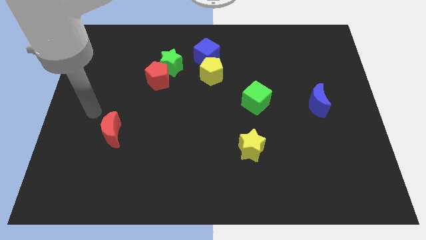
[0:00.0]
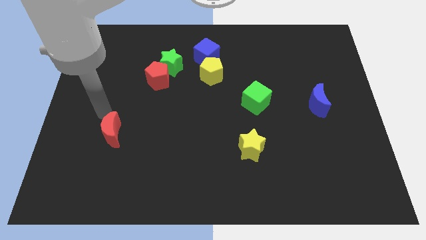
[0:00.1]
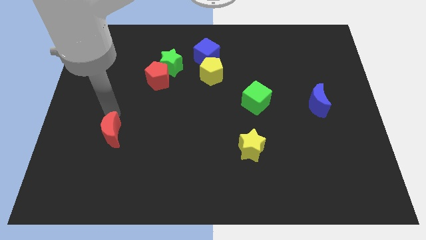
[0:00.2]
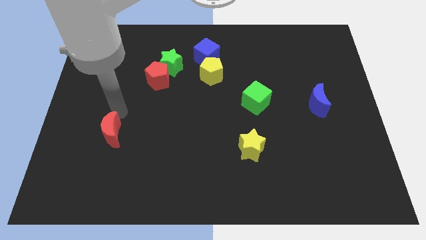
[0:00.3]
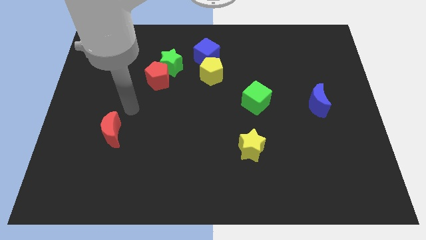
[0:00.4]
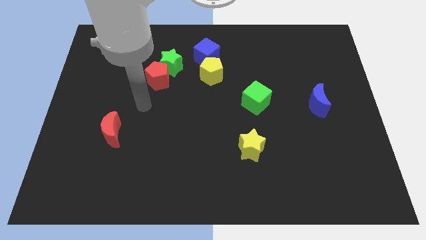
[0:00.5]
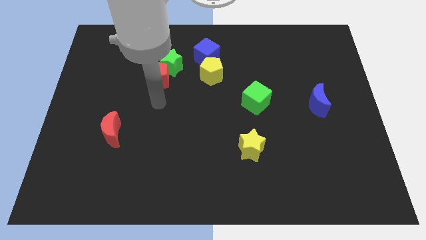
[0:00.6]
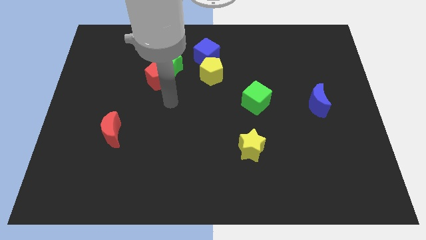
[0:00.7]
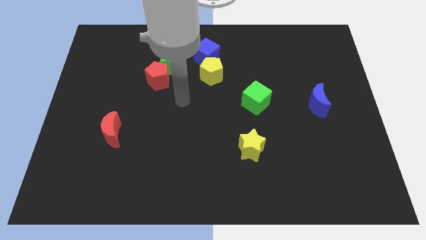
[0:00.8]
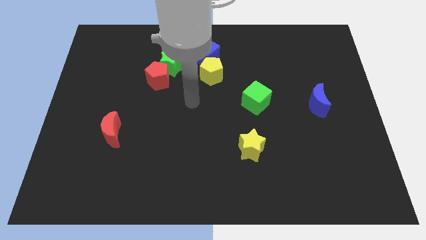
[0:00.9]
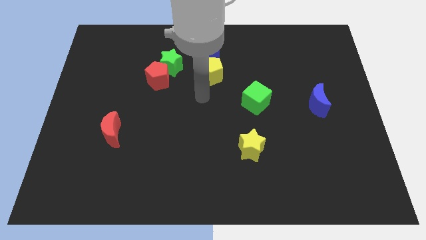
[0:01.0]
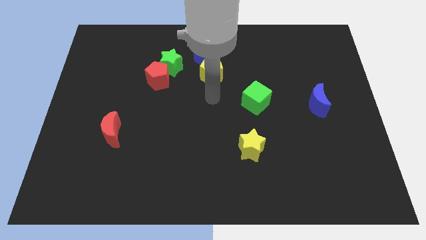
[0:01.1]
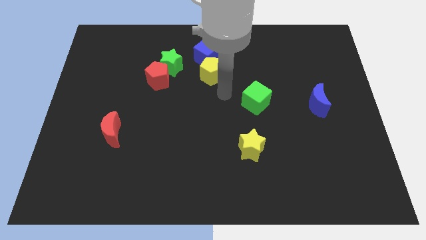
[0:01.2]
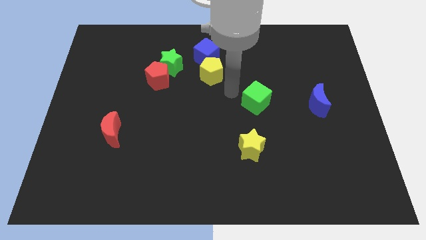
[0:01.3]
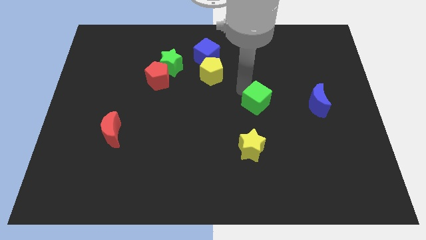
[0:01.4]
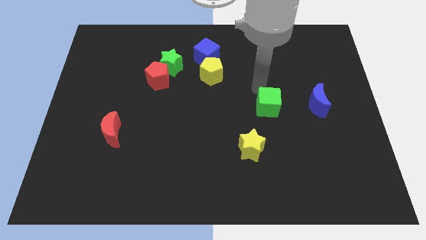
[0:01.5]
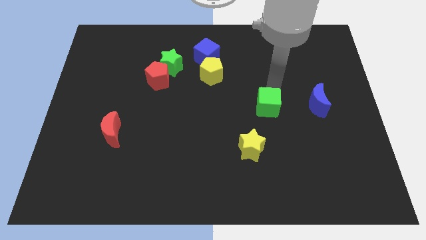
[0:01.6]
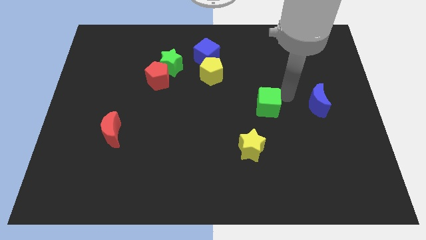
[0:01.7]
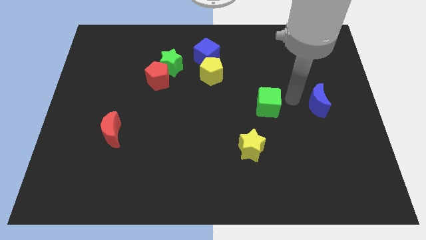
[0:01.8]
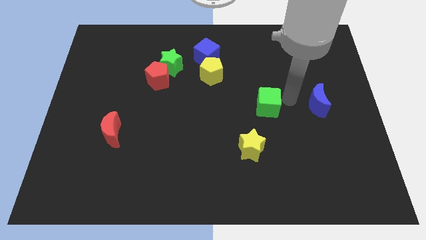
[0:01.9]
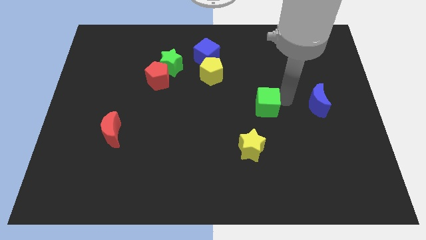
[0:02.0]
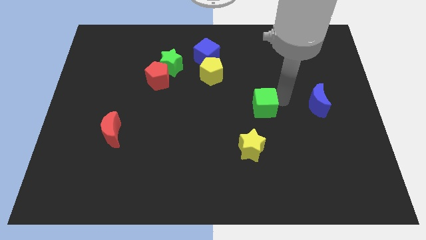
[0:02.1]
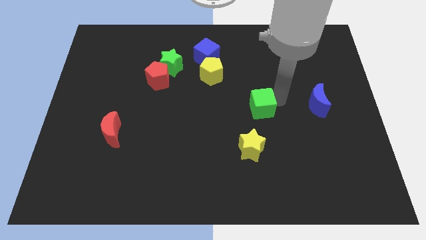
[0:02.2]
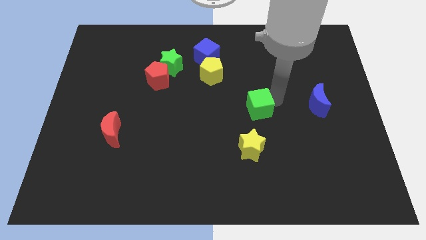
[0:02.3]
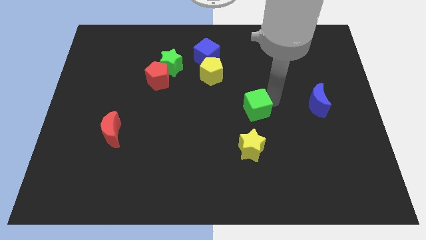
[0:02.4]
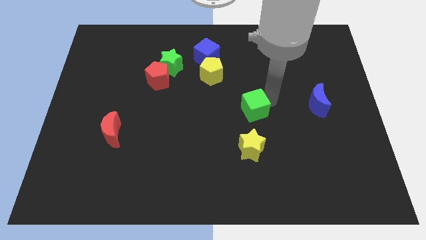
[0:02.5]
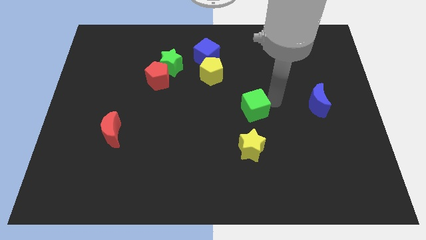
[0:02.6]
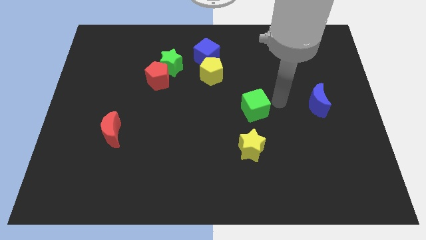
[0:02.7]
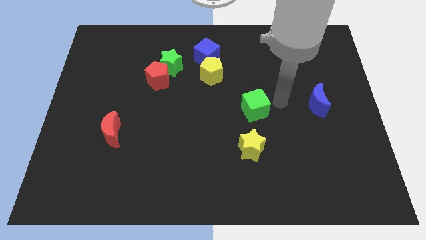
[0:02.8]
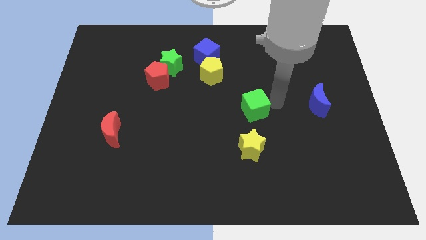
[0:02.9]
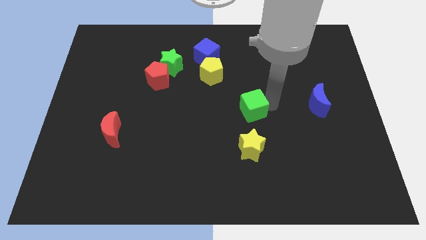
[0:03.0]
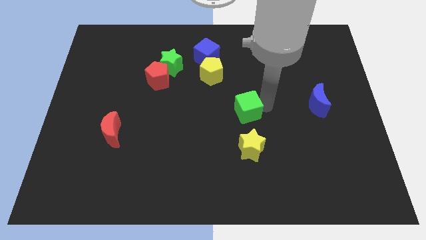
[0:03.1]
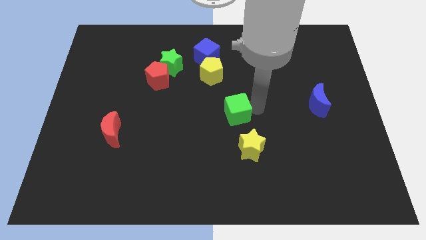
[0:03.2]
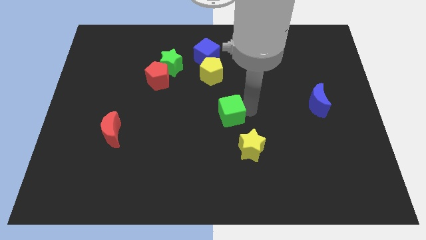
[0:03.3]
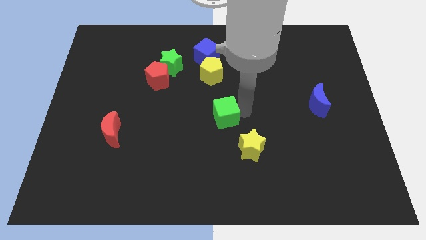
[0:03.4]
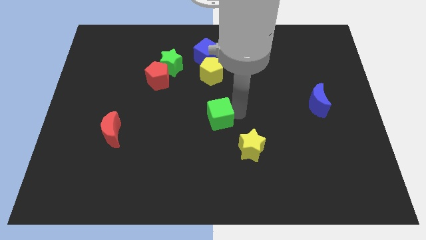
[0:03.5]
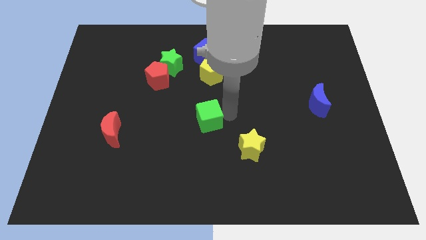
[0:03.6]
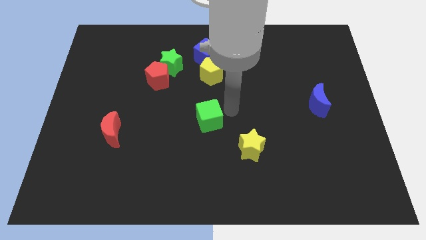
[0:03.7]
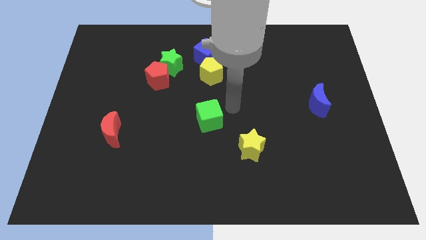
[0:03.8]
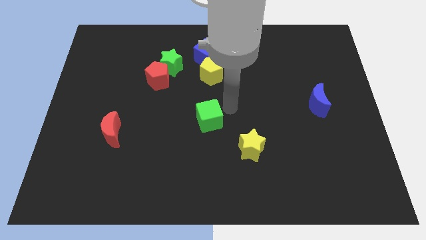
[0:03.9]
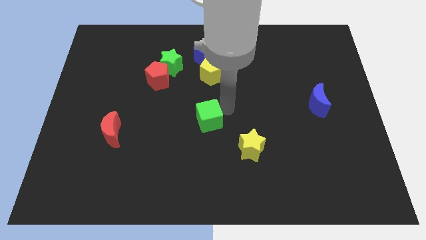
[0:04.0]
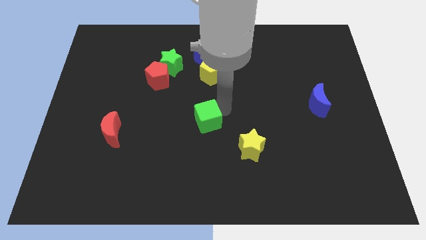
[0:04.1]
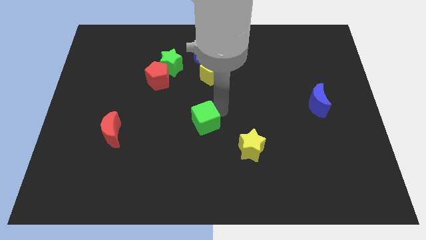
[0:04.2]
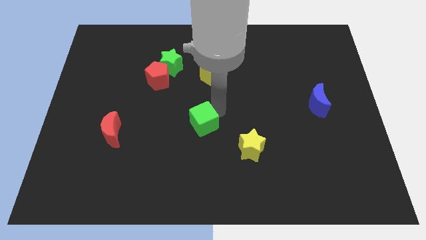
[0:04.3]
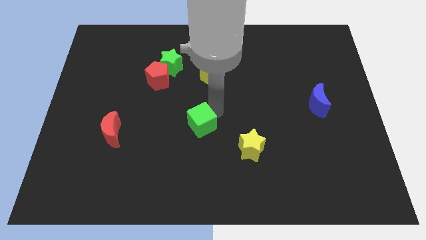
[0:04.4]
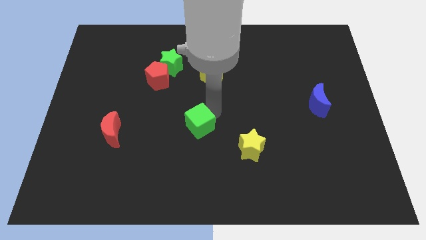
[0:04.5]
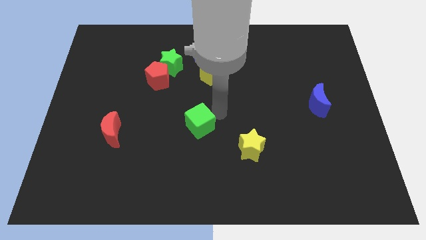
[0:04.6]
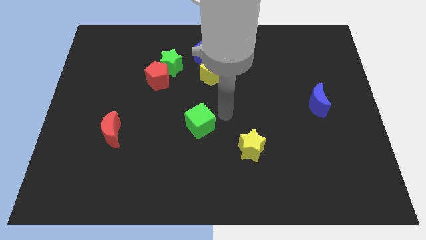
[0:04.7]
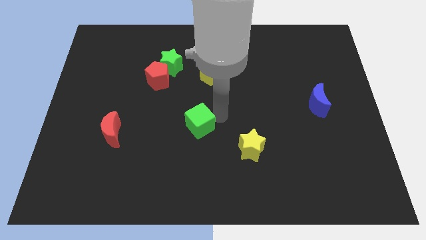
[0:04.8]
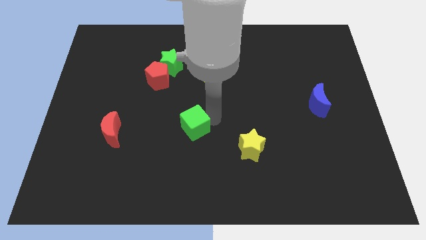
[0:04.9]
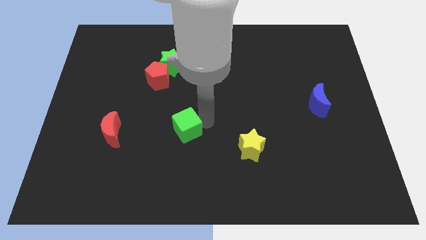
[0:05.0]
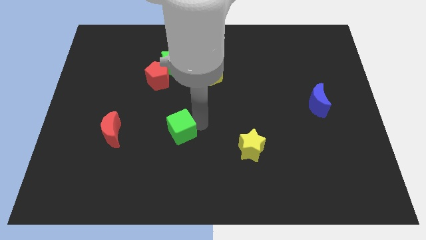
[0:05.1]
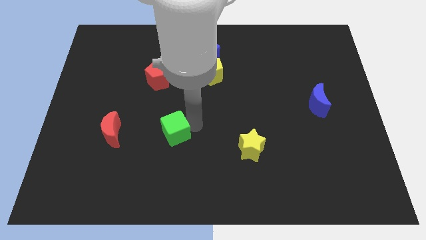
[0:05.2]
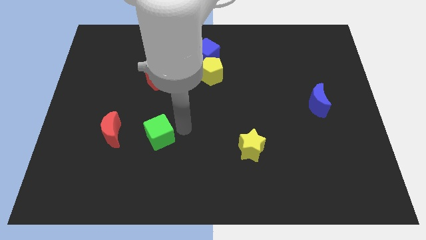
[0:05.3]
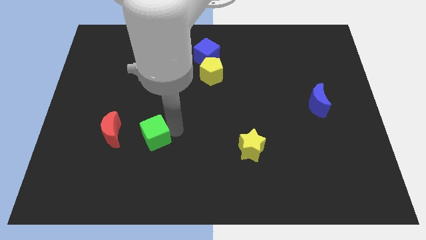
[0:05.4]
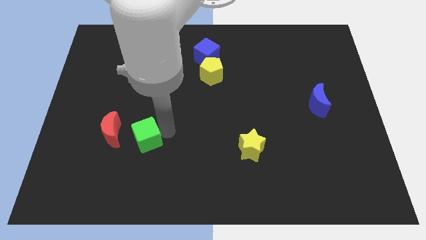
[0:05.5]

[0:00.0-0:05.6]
put the green cube to the bottom right of the red moon

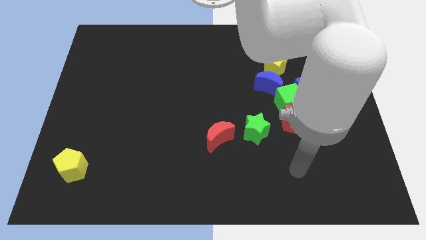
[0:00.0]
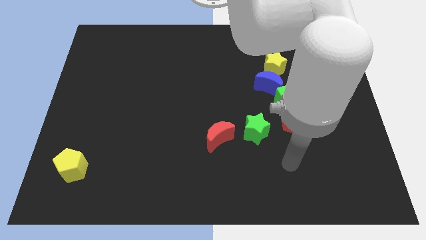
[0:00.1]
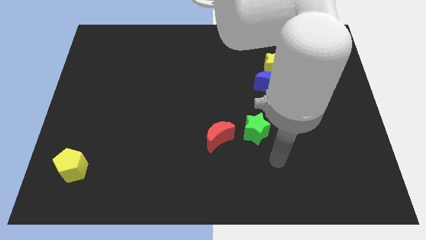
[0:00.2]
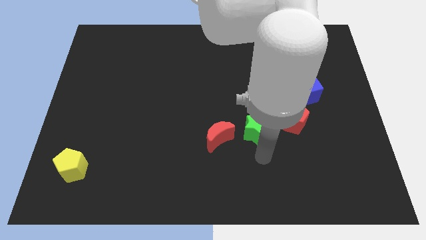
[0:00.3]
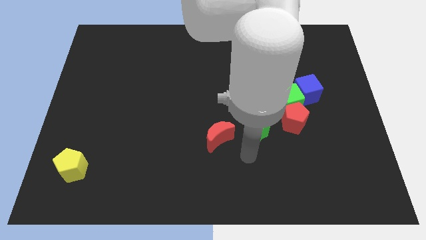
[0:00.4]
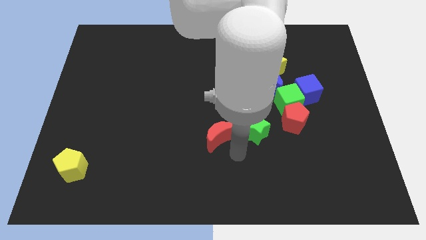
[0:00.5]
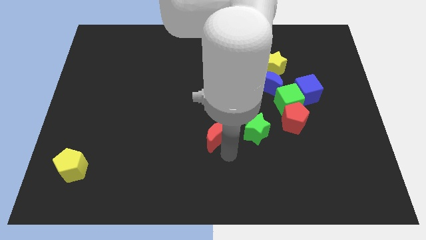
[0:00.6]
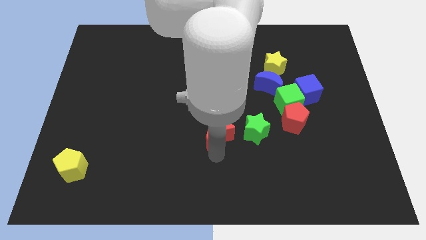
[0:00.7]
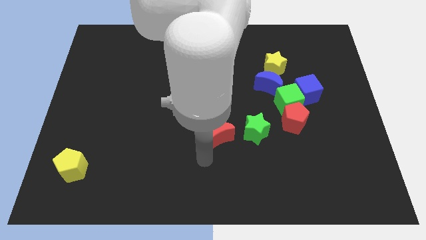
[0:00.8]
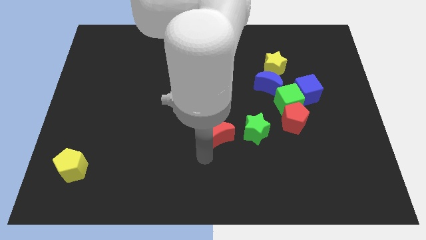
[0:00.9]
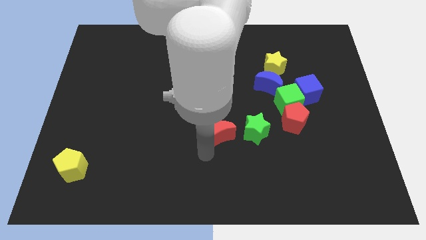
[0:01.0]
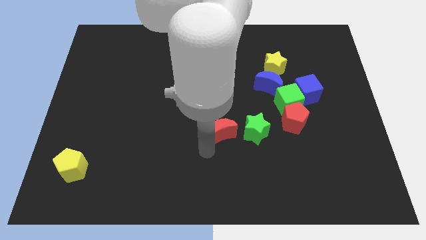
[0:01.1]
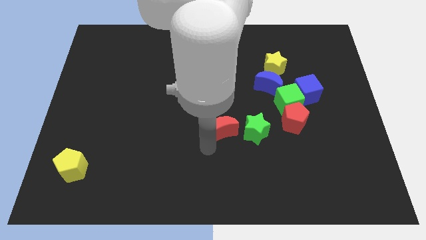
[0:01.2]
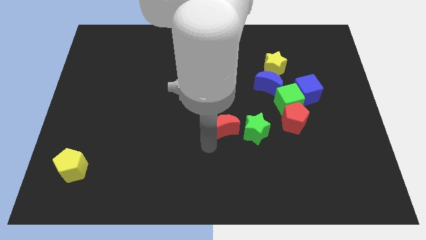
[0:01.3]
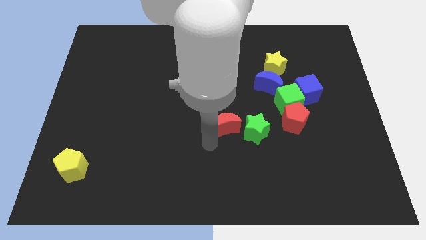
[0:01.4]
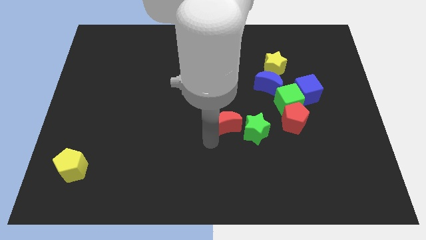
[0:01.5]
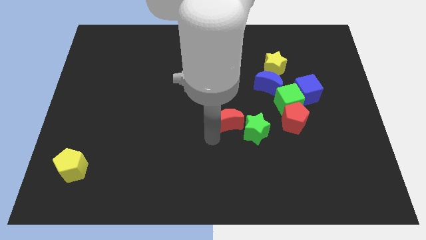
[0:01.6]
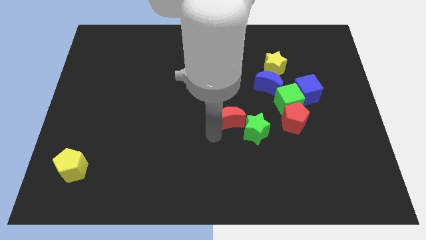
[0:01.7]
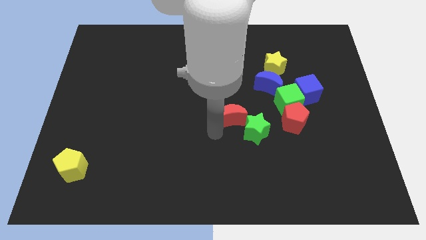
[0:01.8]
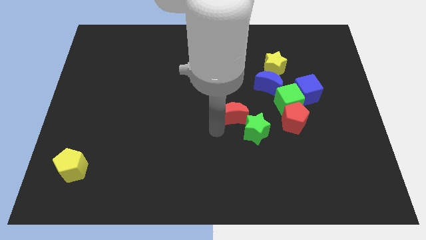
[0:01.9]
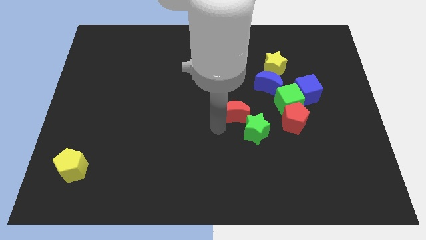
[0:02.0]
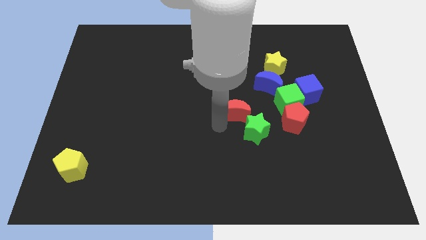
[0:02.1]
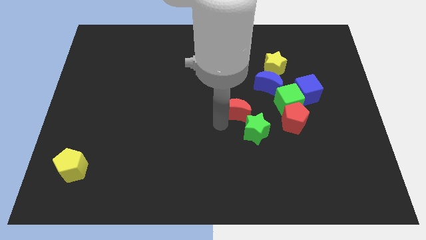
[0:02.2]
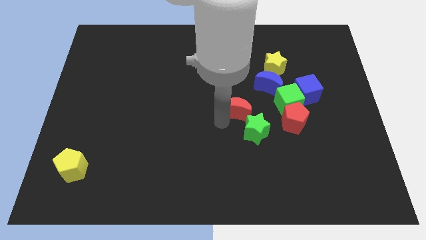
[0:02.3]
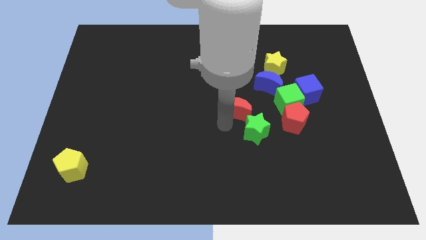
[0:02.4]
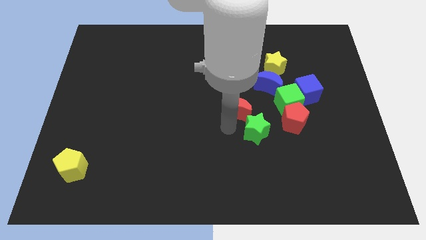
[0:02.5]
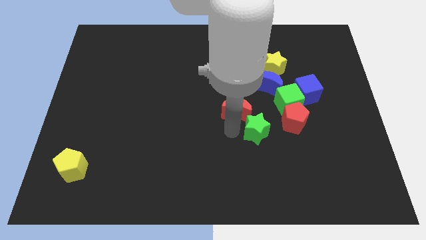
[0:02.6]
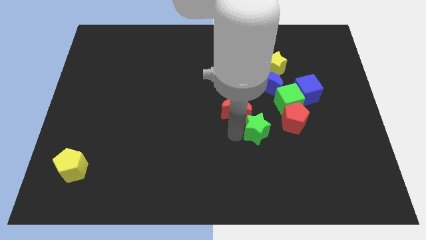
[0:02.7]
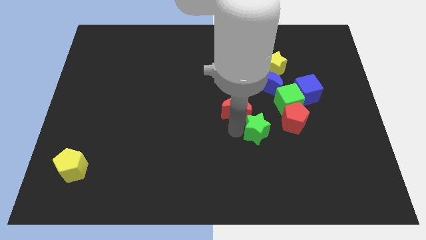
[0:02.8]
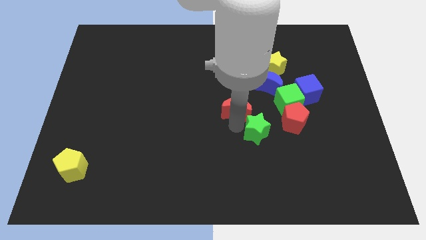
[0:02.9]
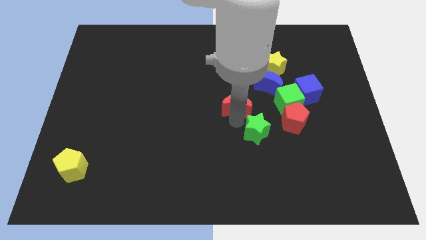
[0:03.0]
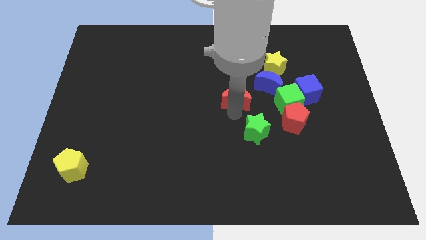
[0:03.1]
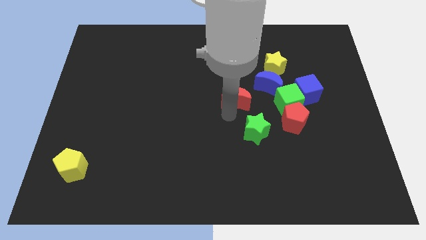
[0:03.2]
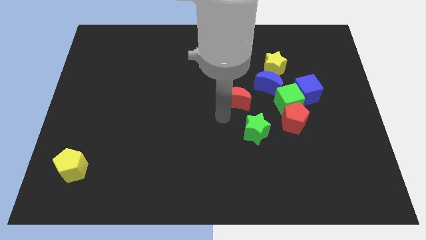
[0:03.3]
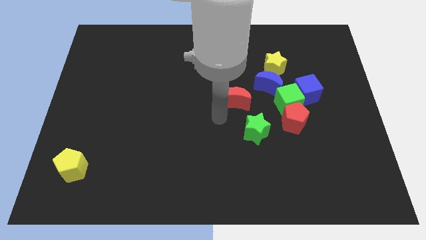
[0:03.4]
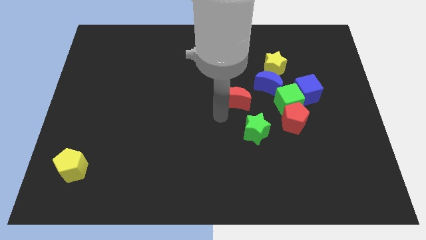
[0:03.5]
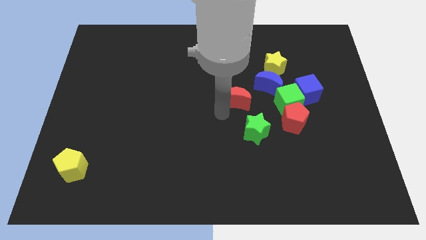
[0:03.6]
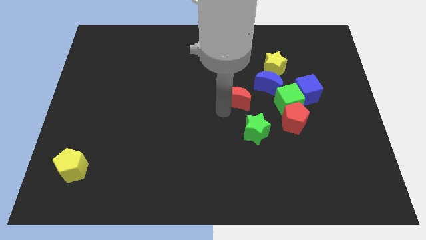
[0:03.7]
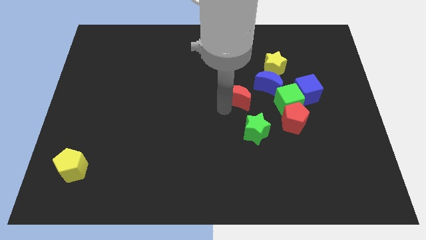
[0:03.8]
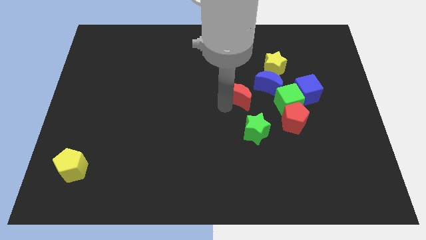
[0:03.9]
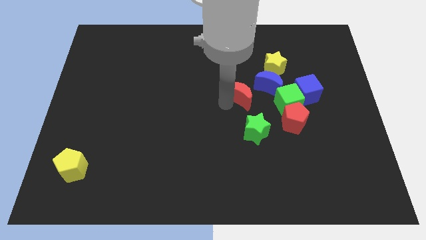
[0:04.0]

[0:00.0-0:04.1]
slide the red moon diagonally down and to the left of the yellow star
